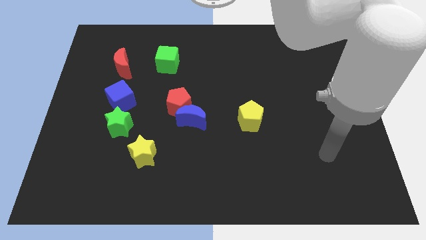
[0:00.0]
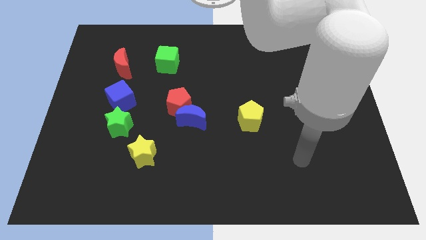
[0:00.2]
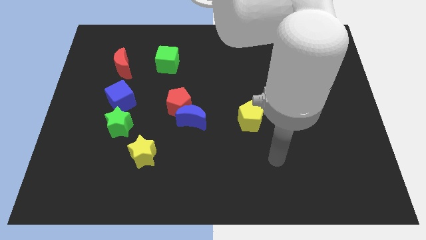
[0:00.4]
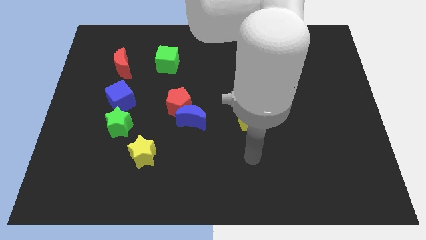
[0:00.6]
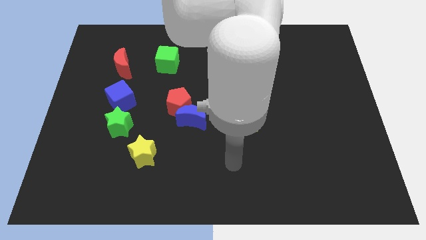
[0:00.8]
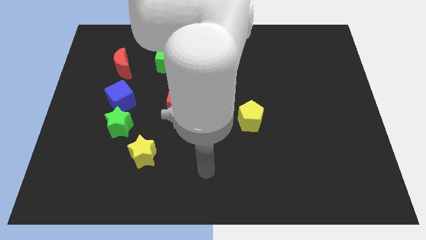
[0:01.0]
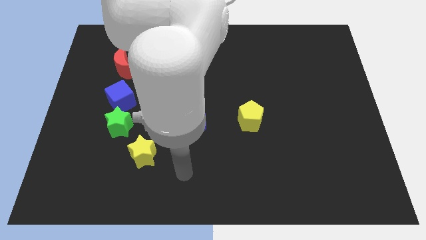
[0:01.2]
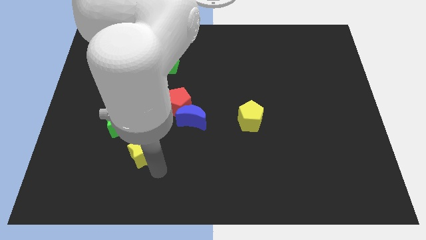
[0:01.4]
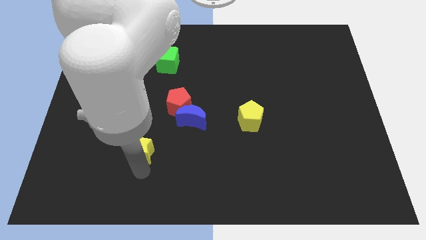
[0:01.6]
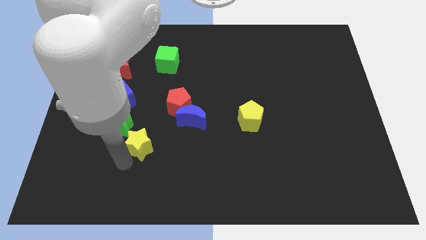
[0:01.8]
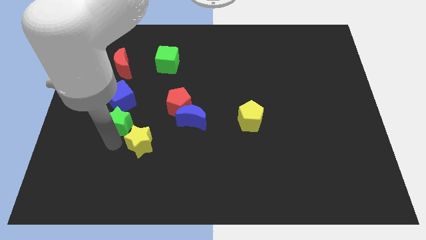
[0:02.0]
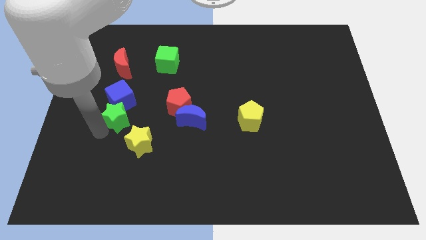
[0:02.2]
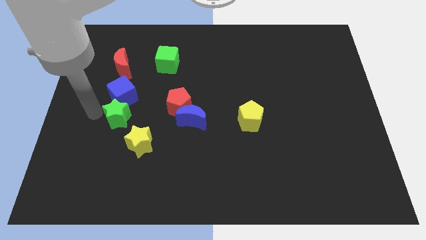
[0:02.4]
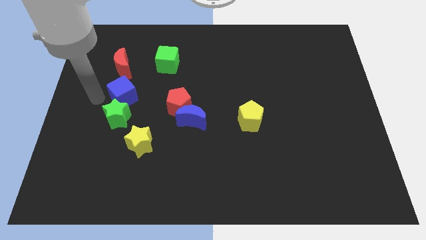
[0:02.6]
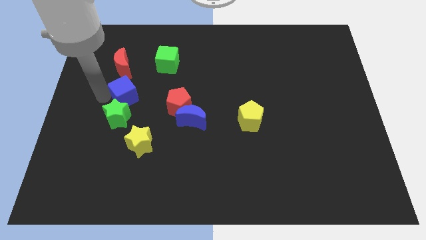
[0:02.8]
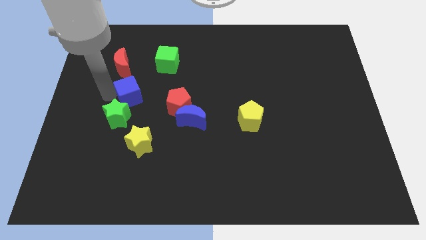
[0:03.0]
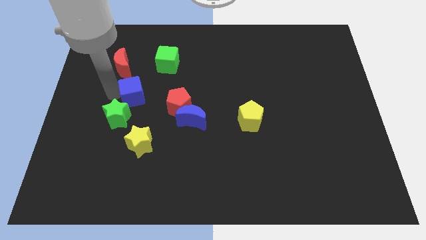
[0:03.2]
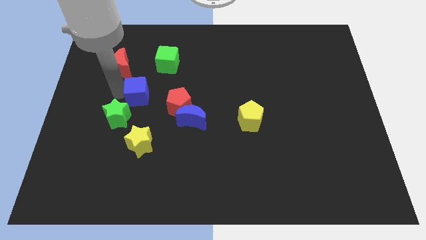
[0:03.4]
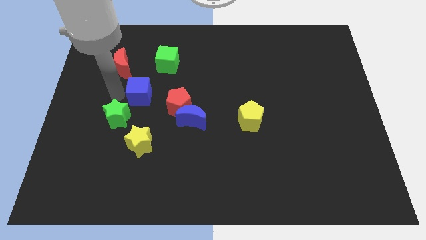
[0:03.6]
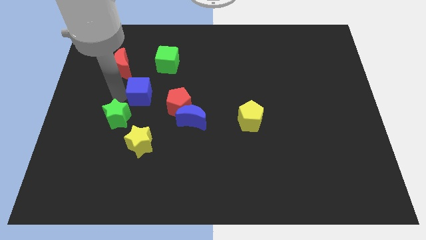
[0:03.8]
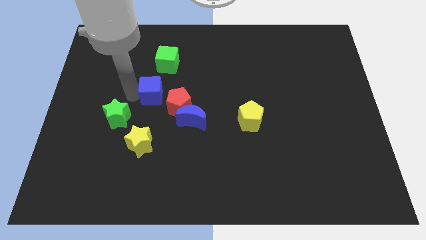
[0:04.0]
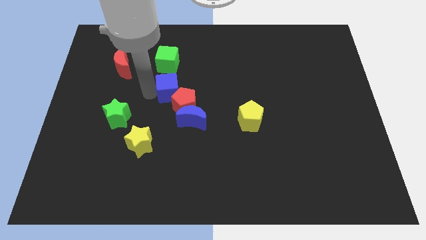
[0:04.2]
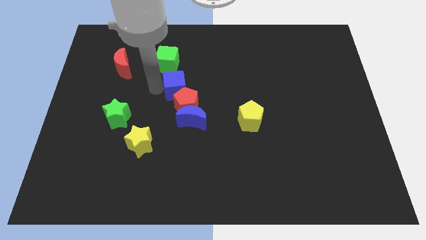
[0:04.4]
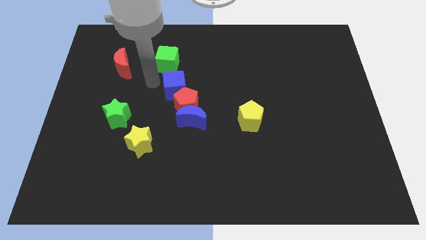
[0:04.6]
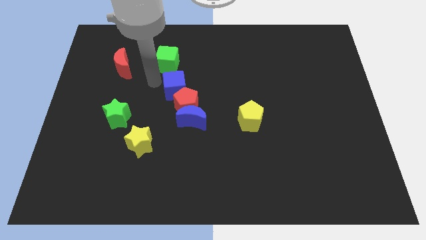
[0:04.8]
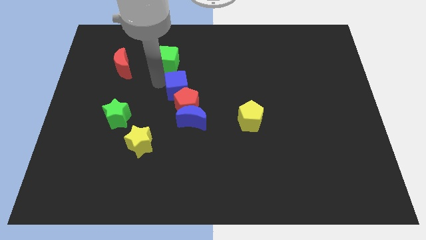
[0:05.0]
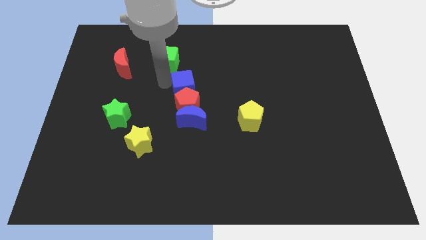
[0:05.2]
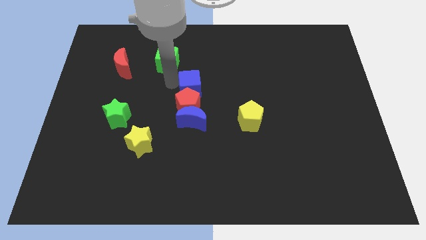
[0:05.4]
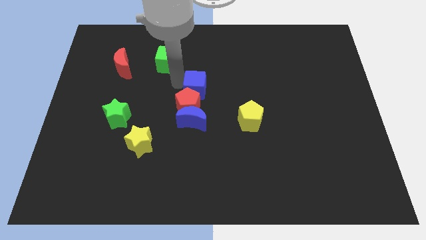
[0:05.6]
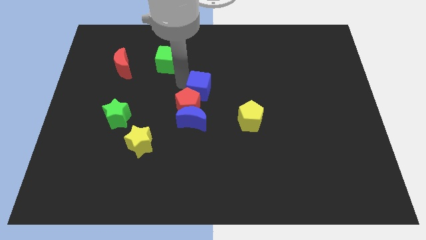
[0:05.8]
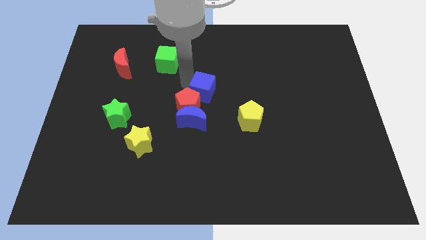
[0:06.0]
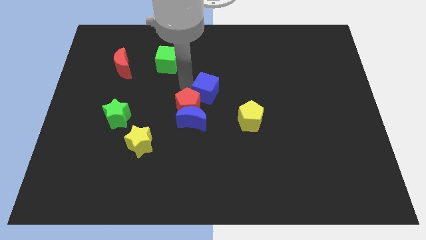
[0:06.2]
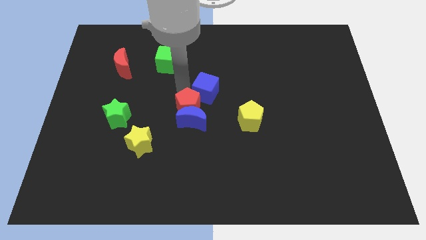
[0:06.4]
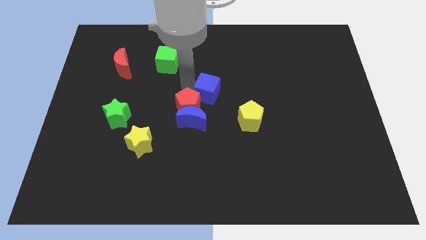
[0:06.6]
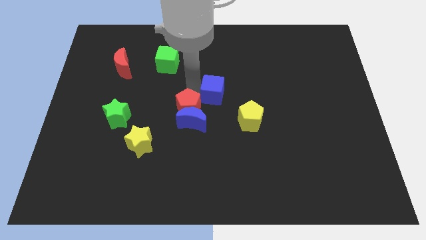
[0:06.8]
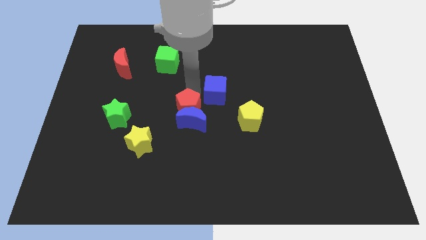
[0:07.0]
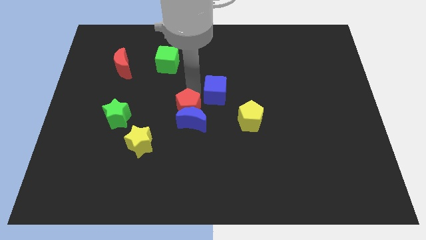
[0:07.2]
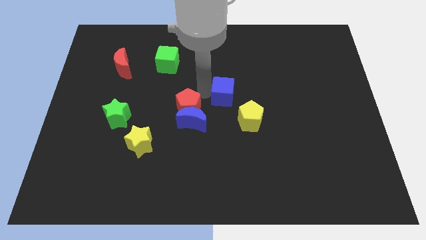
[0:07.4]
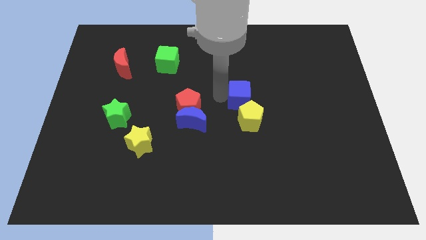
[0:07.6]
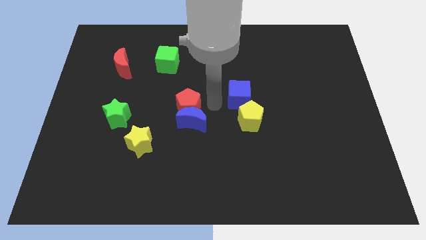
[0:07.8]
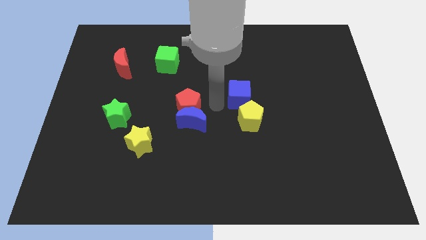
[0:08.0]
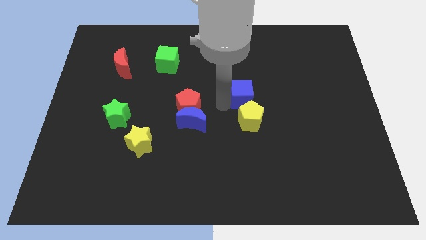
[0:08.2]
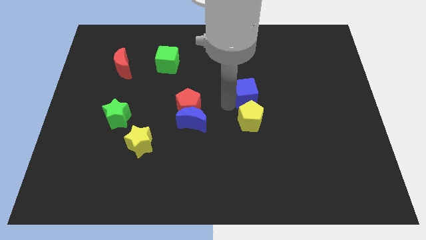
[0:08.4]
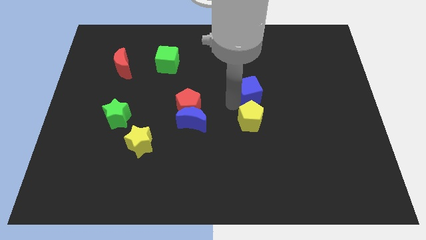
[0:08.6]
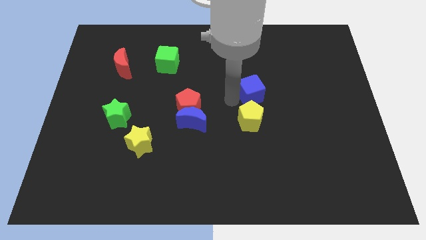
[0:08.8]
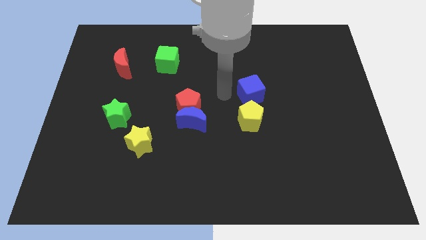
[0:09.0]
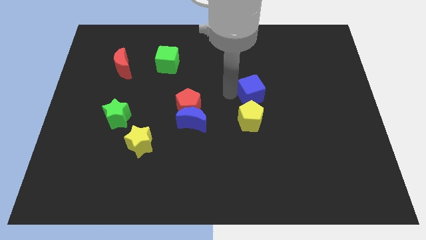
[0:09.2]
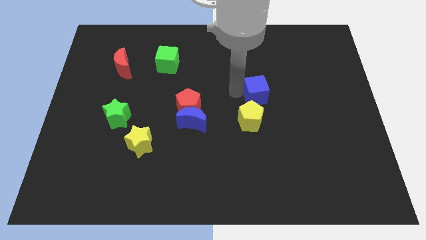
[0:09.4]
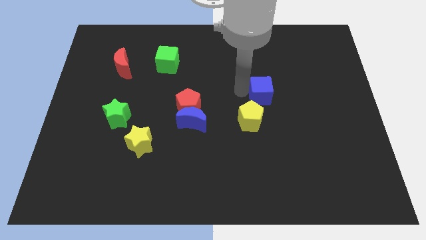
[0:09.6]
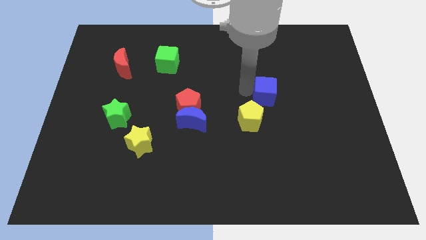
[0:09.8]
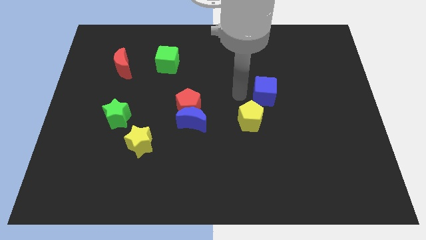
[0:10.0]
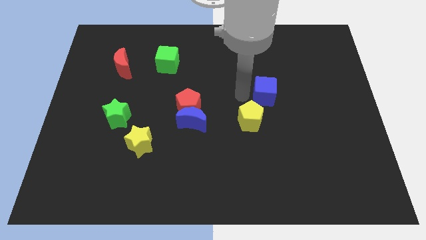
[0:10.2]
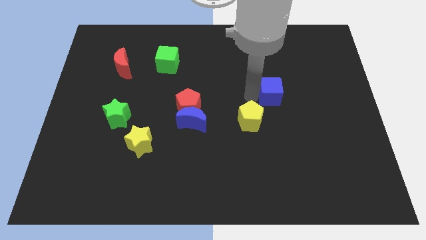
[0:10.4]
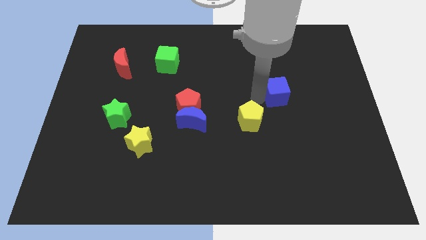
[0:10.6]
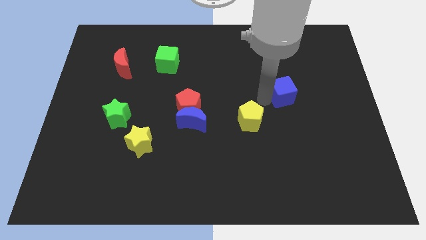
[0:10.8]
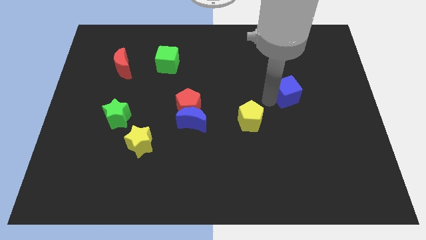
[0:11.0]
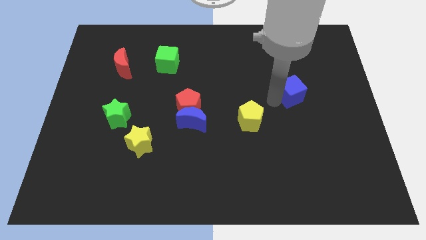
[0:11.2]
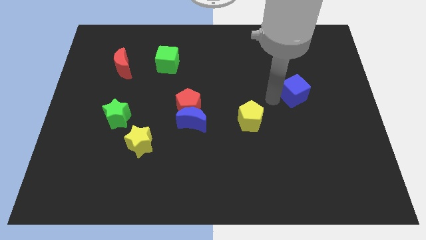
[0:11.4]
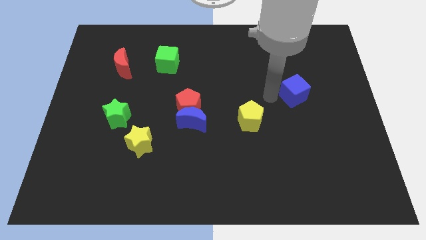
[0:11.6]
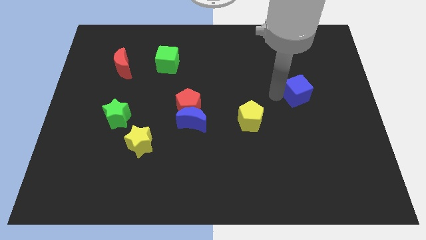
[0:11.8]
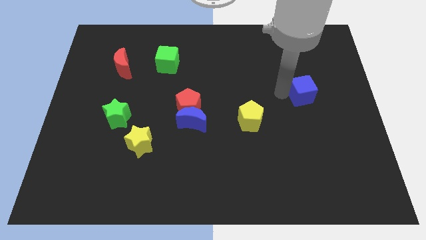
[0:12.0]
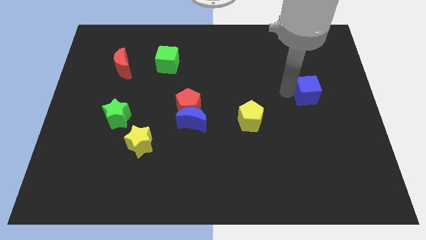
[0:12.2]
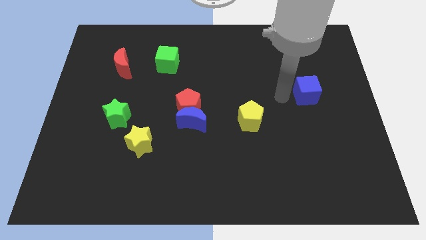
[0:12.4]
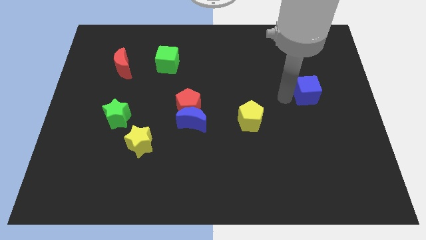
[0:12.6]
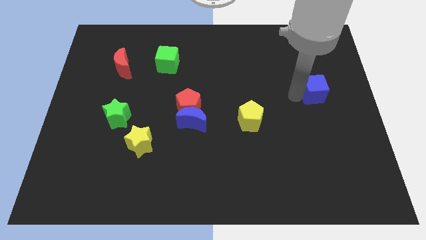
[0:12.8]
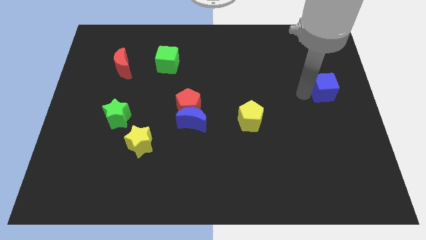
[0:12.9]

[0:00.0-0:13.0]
slide the blue cube to the center right

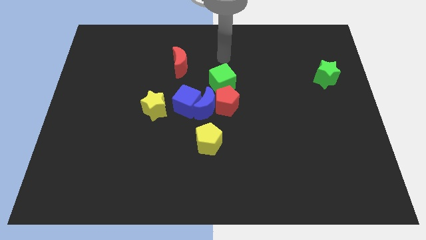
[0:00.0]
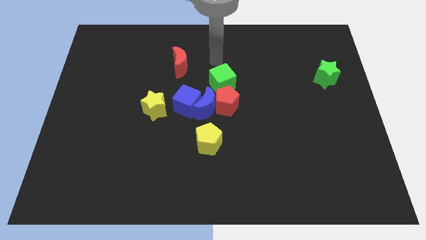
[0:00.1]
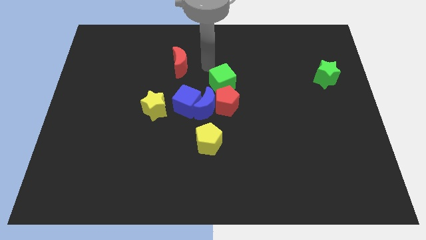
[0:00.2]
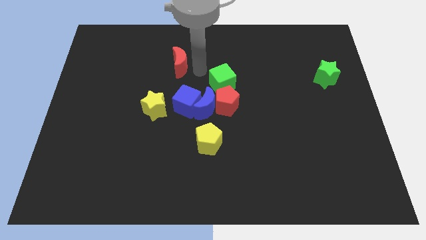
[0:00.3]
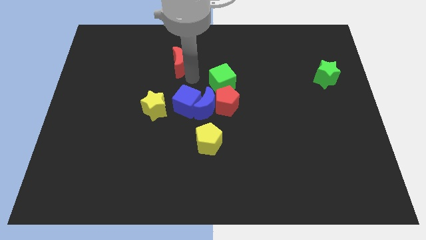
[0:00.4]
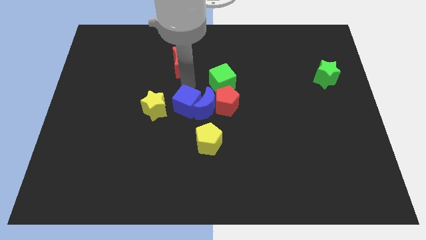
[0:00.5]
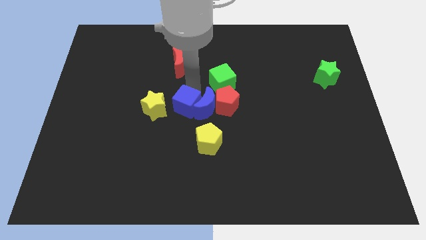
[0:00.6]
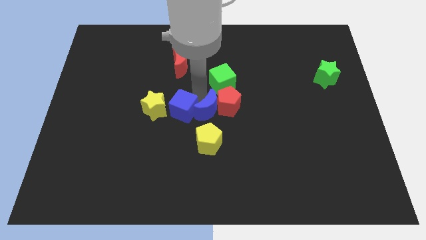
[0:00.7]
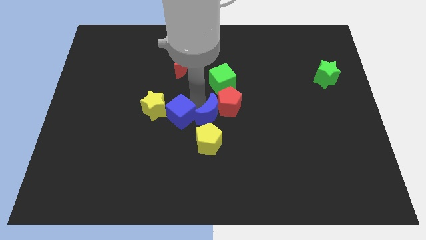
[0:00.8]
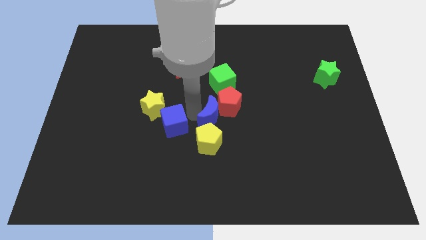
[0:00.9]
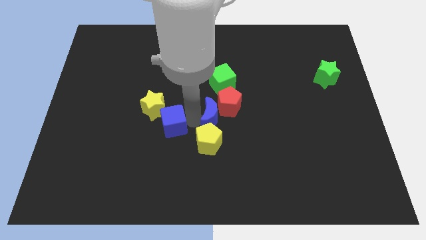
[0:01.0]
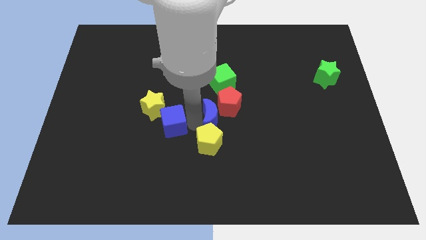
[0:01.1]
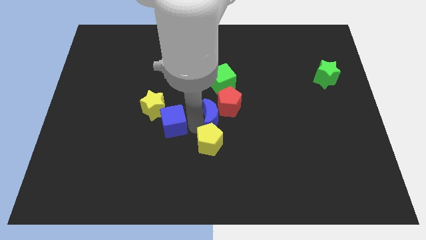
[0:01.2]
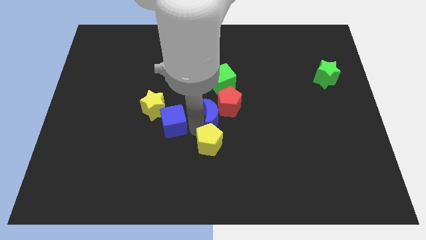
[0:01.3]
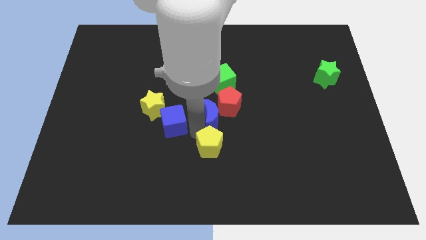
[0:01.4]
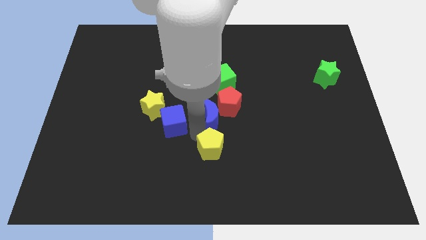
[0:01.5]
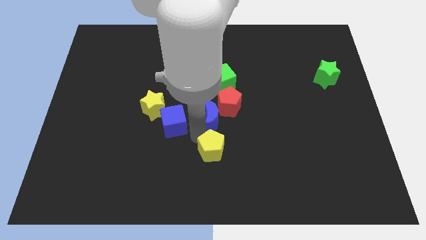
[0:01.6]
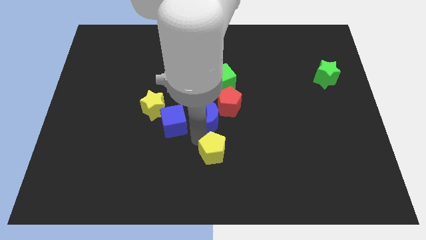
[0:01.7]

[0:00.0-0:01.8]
slide the yellow pentagon to the bottom
